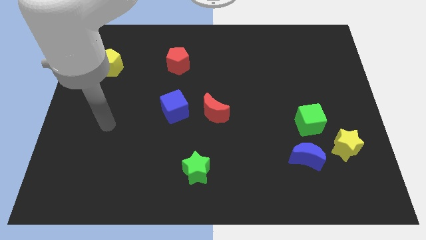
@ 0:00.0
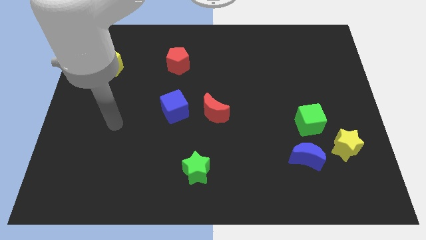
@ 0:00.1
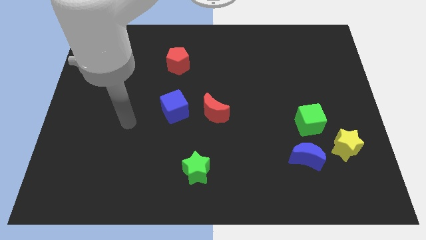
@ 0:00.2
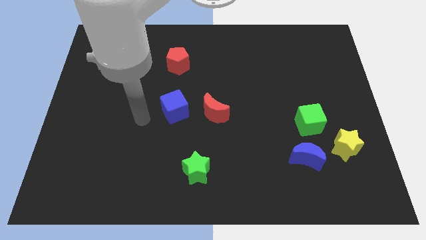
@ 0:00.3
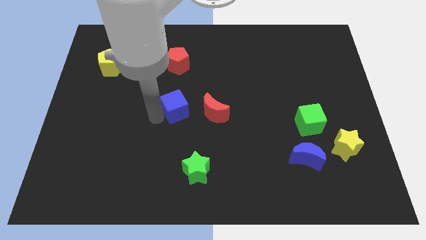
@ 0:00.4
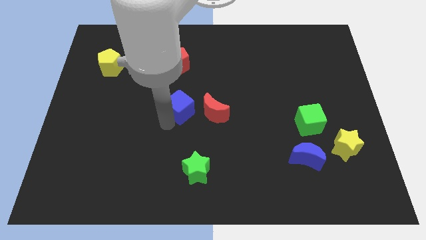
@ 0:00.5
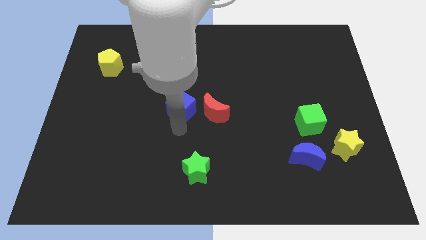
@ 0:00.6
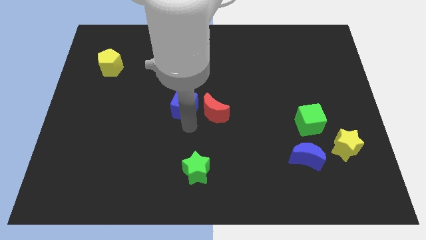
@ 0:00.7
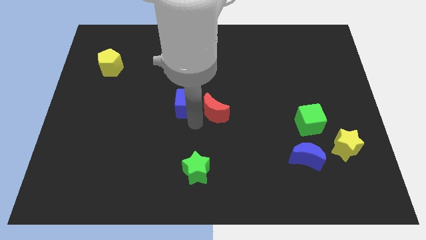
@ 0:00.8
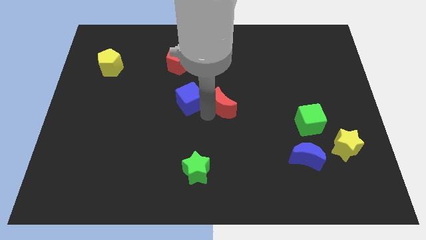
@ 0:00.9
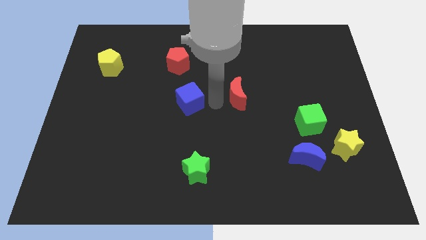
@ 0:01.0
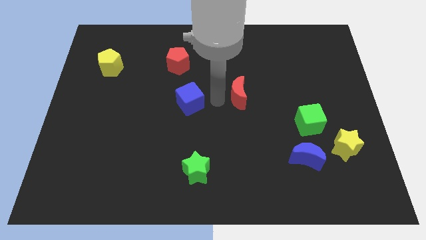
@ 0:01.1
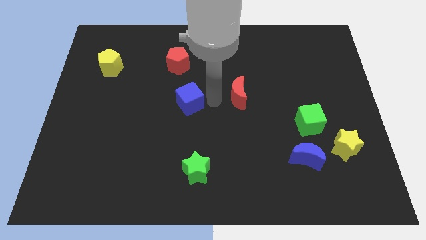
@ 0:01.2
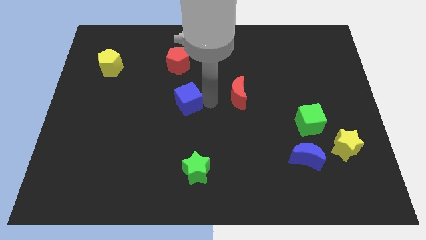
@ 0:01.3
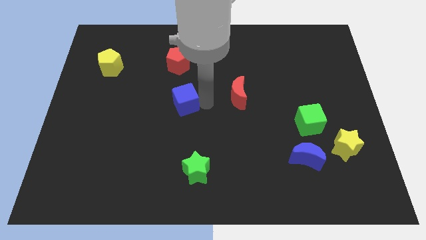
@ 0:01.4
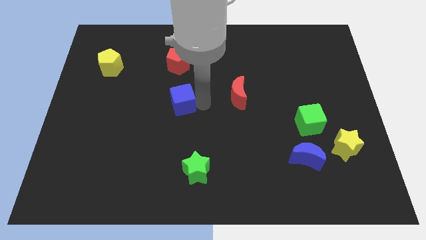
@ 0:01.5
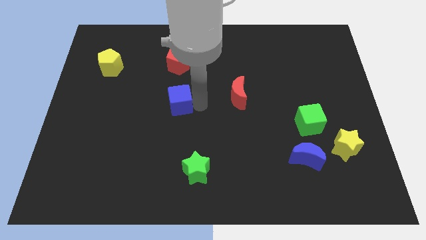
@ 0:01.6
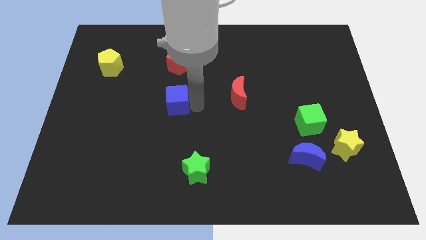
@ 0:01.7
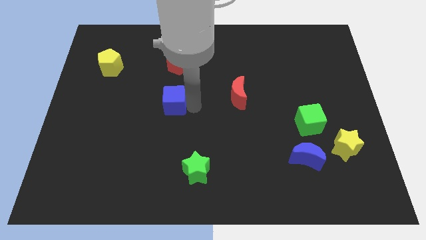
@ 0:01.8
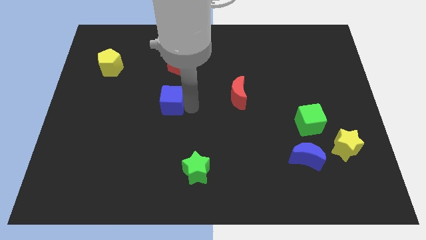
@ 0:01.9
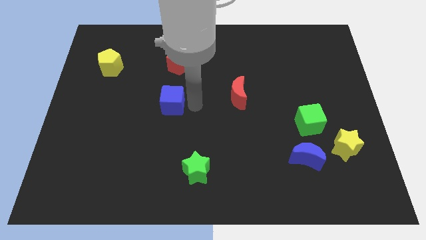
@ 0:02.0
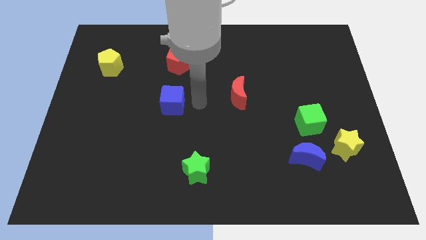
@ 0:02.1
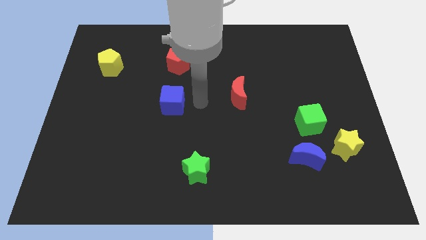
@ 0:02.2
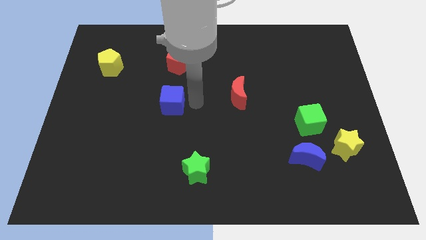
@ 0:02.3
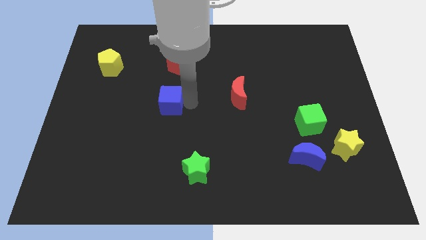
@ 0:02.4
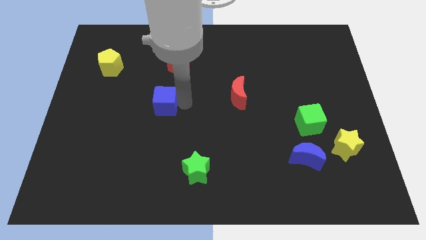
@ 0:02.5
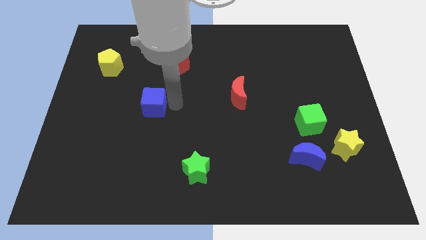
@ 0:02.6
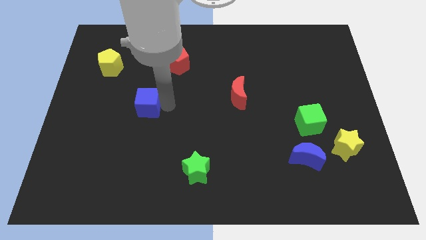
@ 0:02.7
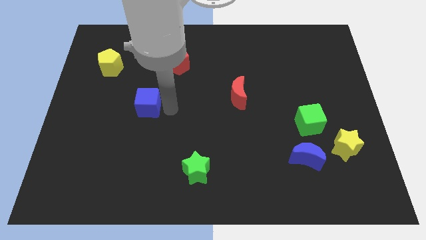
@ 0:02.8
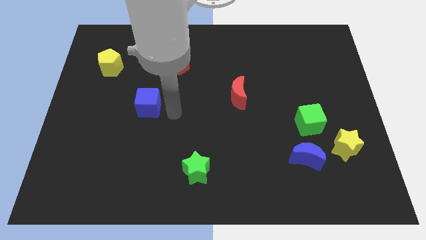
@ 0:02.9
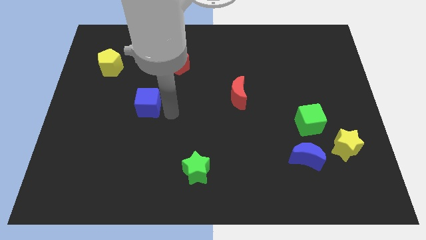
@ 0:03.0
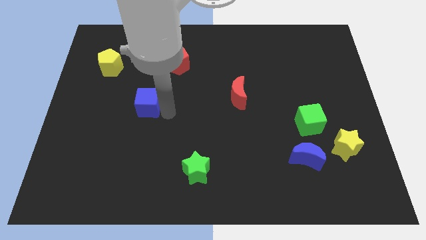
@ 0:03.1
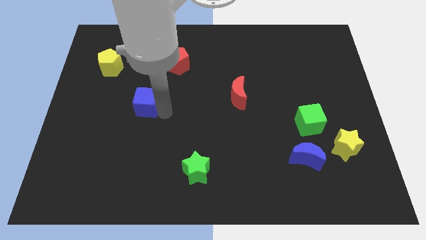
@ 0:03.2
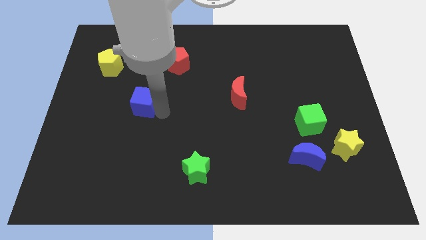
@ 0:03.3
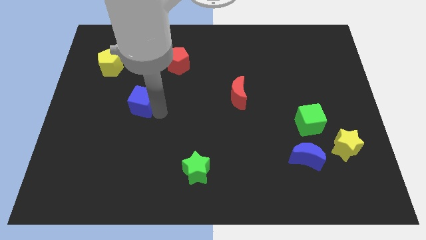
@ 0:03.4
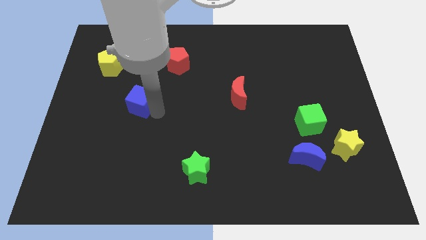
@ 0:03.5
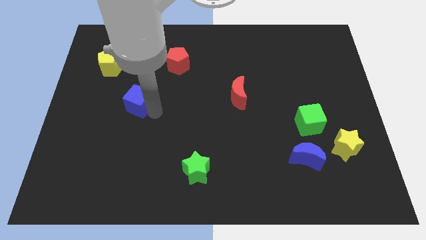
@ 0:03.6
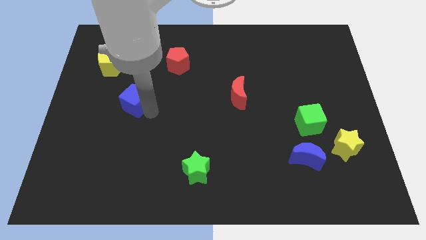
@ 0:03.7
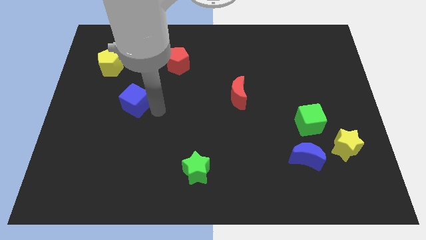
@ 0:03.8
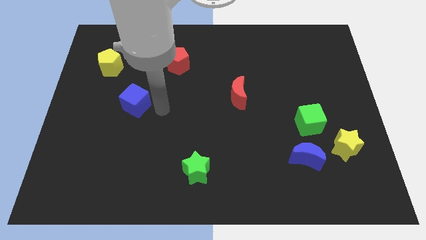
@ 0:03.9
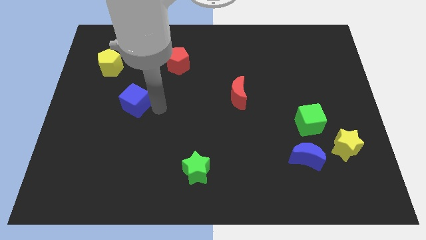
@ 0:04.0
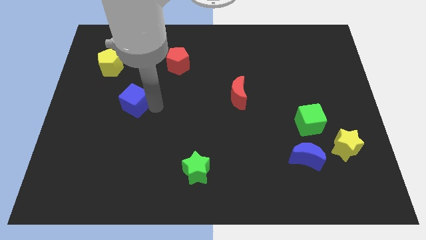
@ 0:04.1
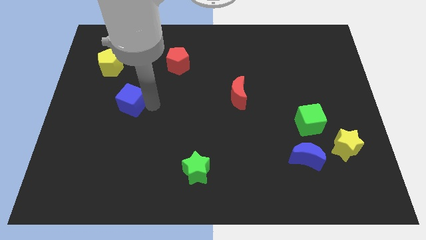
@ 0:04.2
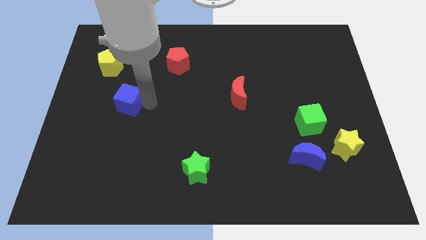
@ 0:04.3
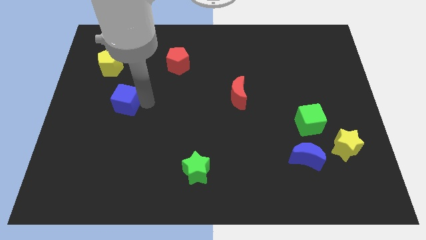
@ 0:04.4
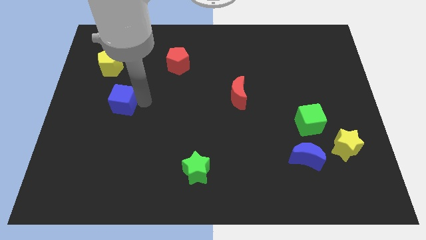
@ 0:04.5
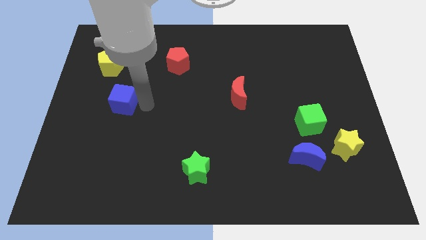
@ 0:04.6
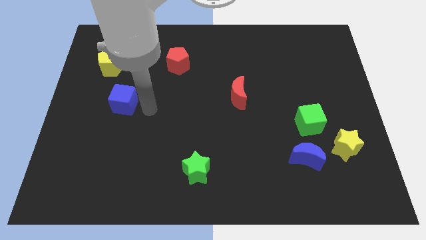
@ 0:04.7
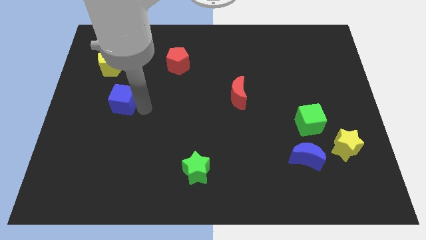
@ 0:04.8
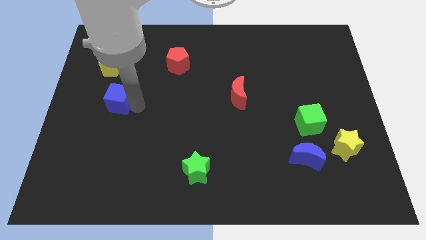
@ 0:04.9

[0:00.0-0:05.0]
put the blue cube to the bottom of the yellow pentagon

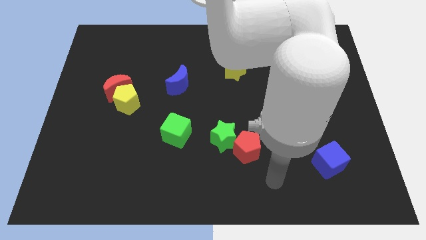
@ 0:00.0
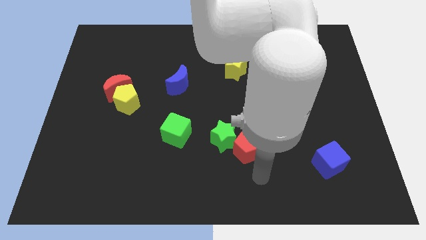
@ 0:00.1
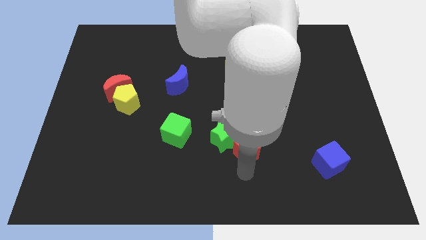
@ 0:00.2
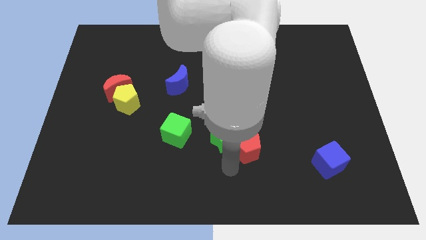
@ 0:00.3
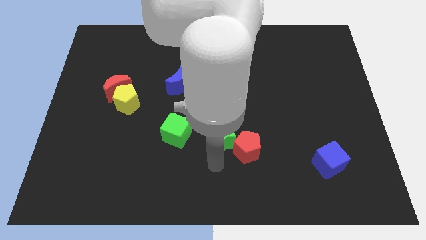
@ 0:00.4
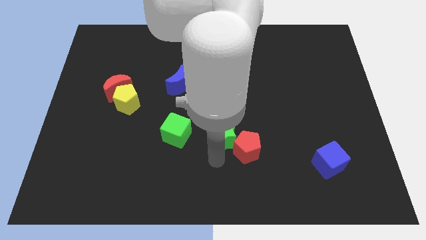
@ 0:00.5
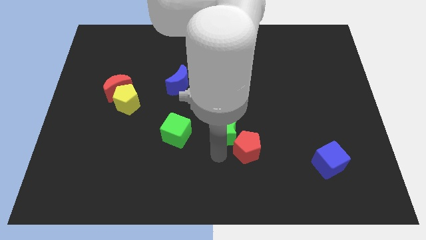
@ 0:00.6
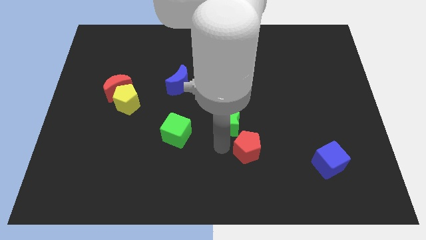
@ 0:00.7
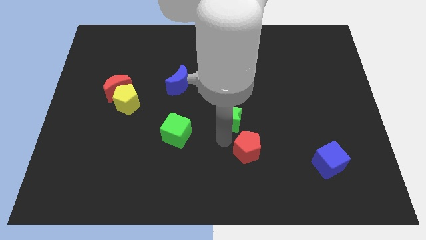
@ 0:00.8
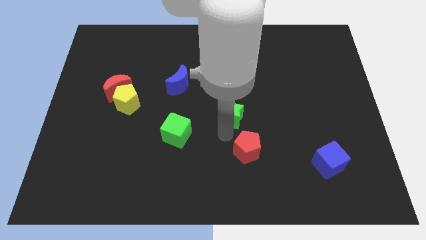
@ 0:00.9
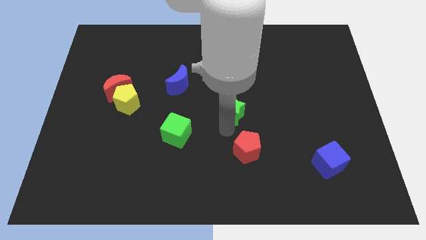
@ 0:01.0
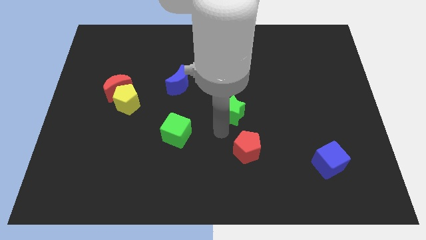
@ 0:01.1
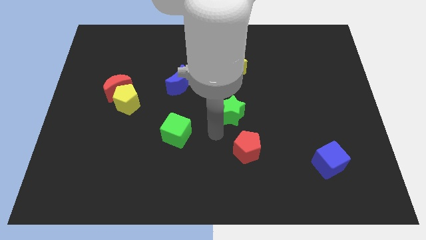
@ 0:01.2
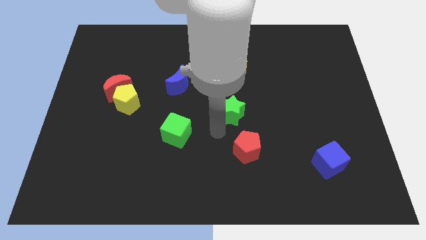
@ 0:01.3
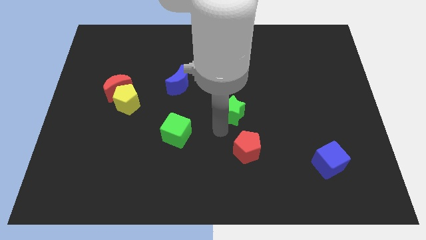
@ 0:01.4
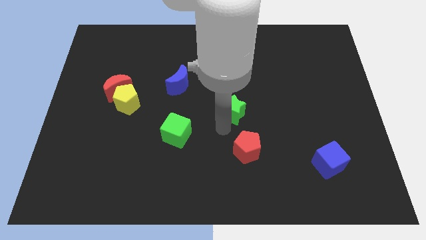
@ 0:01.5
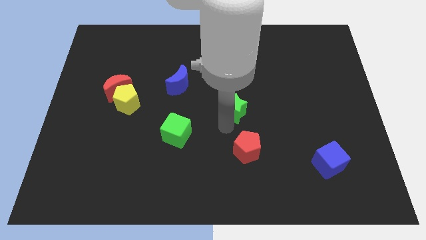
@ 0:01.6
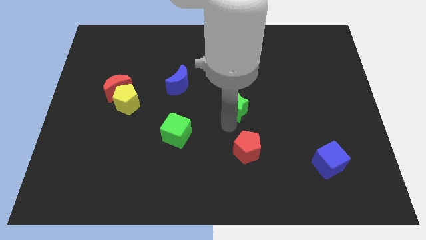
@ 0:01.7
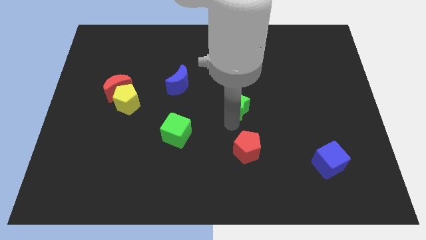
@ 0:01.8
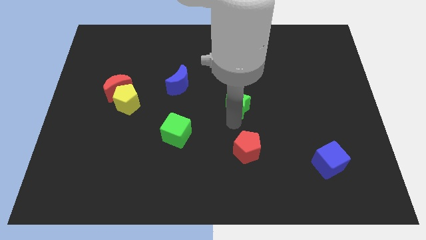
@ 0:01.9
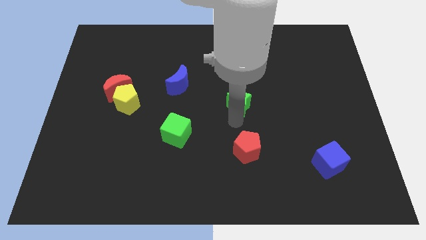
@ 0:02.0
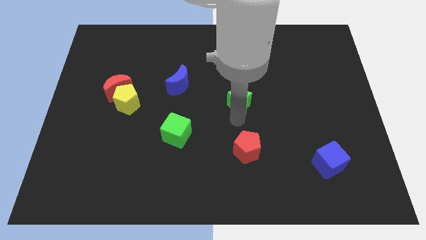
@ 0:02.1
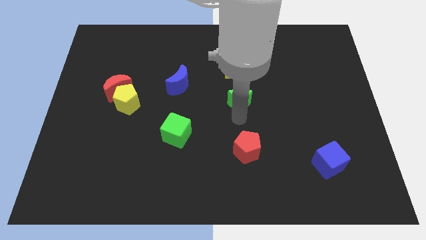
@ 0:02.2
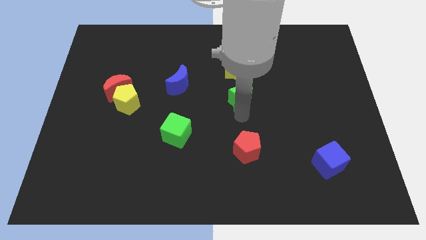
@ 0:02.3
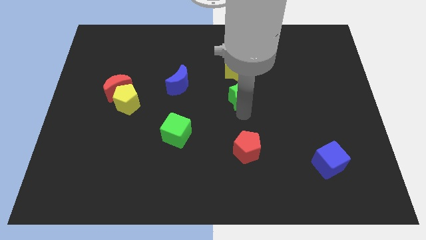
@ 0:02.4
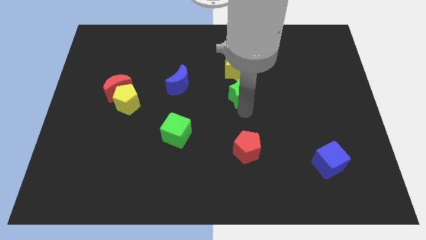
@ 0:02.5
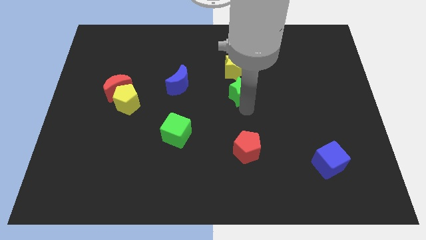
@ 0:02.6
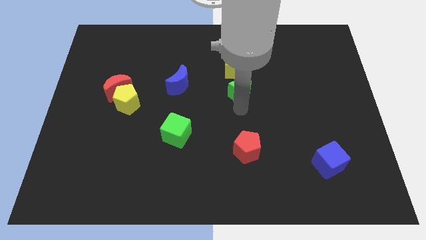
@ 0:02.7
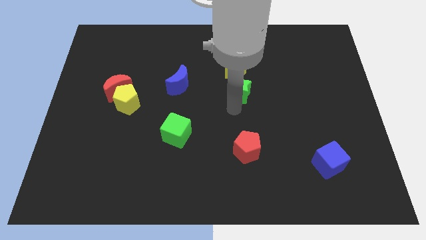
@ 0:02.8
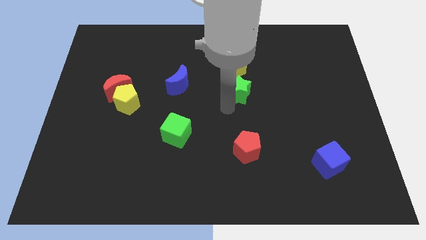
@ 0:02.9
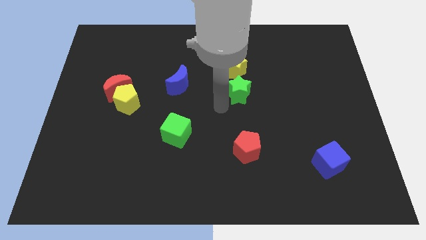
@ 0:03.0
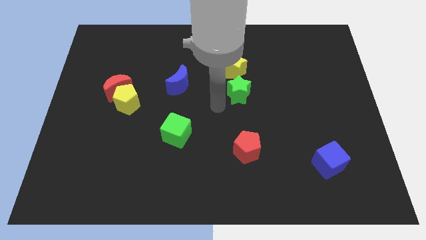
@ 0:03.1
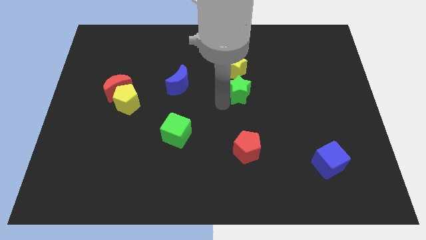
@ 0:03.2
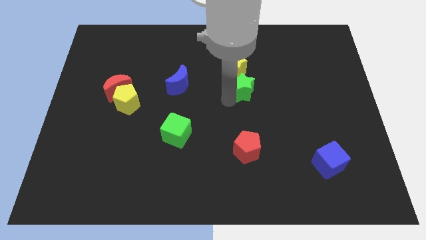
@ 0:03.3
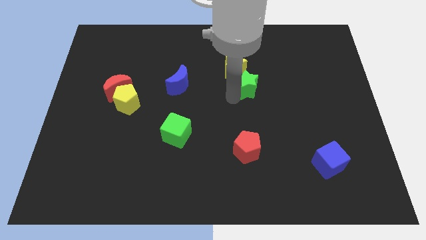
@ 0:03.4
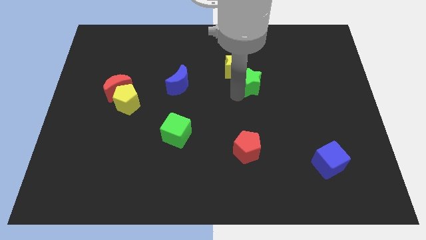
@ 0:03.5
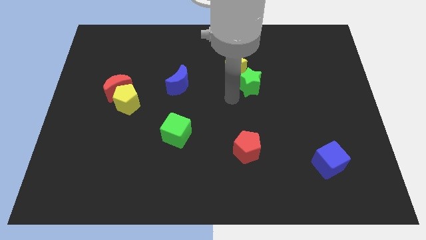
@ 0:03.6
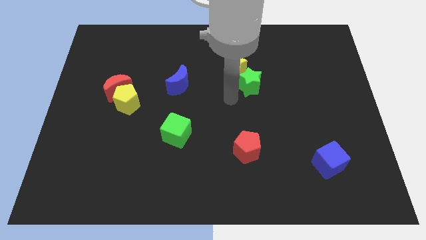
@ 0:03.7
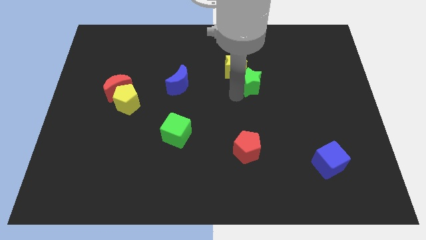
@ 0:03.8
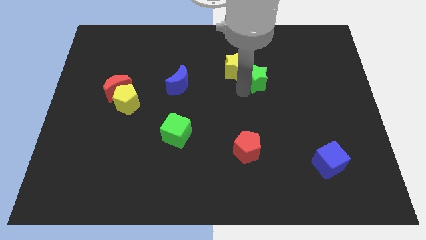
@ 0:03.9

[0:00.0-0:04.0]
put the green star to the right side of the yellow star
